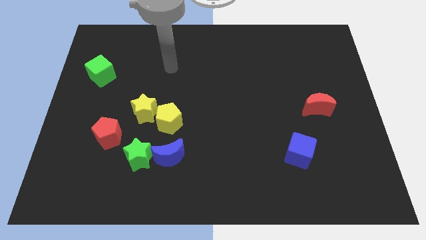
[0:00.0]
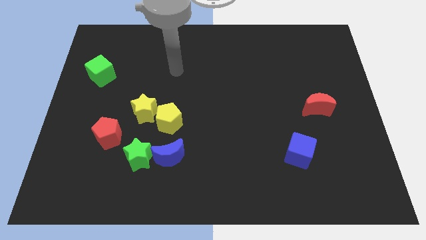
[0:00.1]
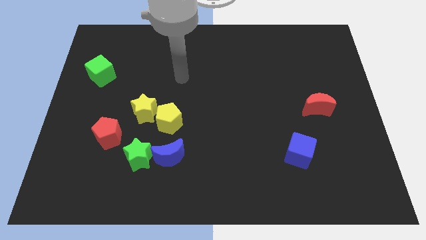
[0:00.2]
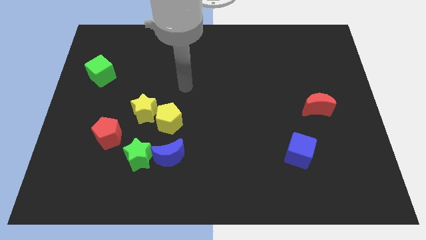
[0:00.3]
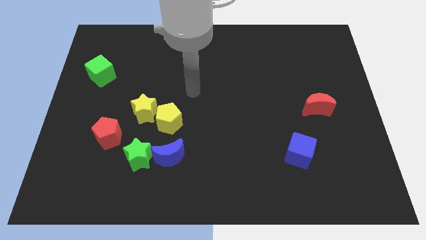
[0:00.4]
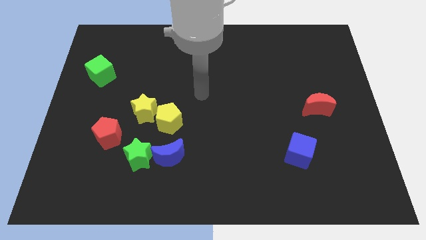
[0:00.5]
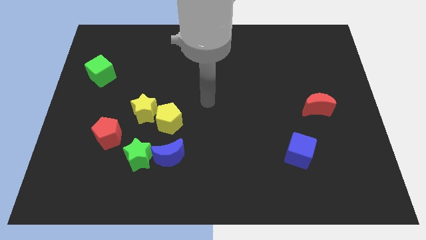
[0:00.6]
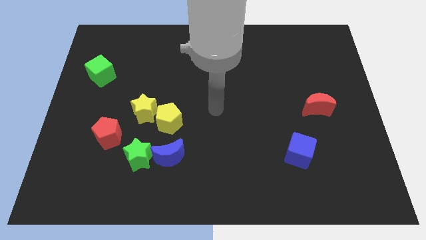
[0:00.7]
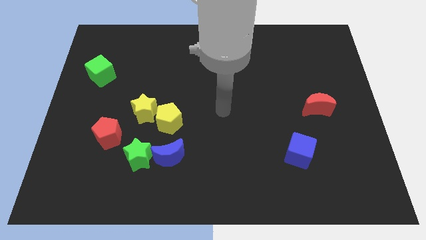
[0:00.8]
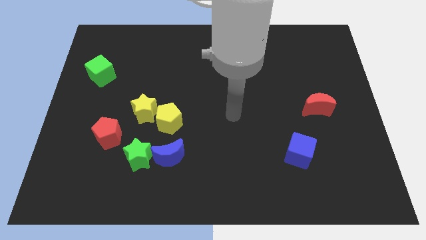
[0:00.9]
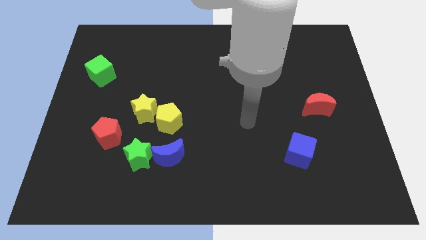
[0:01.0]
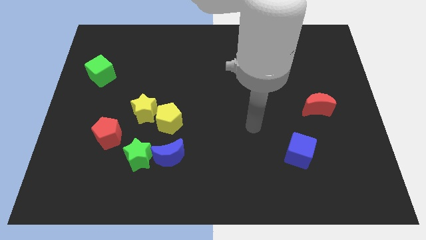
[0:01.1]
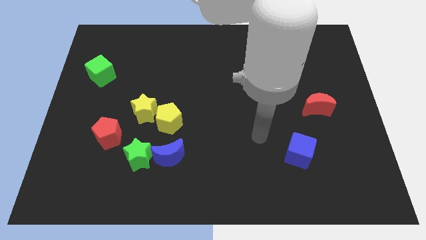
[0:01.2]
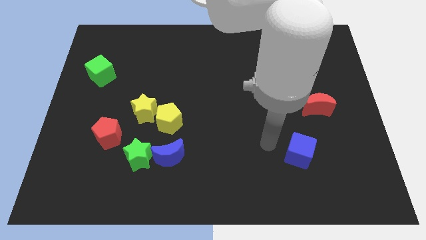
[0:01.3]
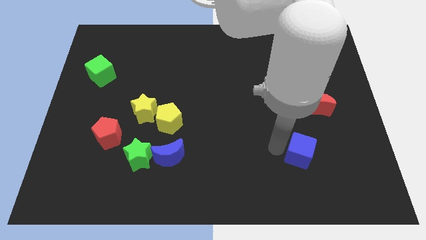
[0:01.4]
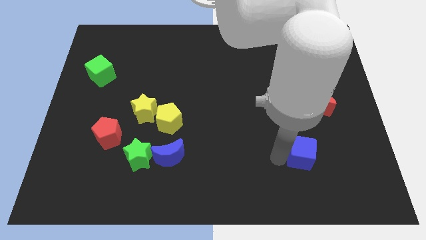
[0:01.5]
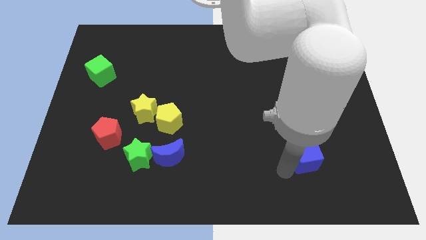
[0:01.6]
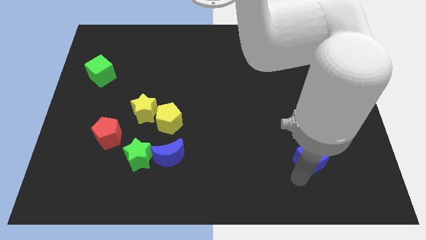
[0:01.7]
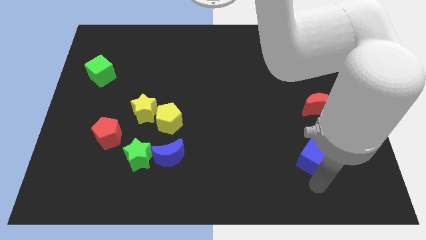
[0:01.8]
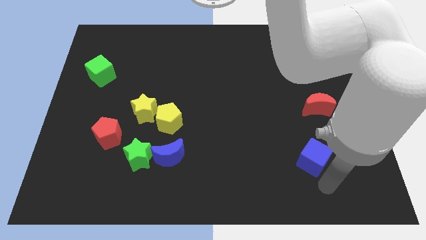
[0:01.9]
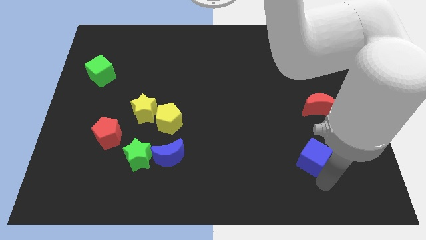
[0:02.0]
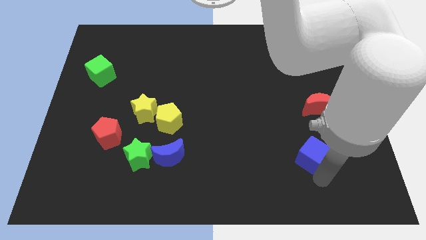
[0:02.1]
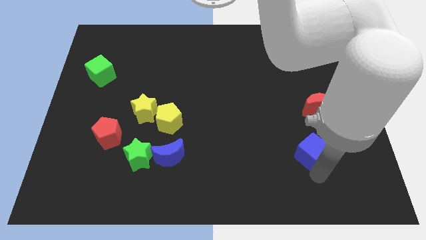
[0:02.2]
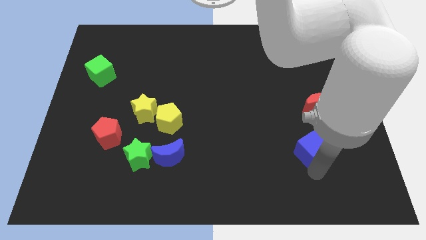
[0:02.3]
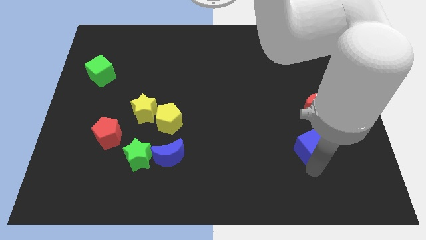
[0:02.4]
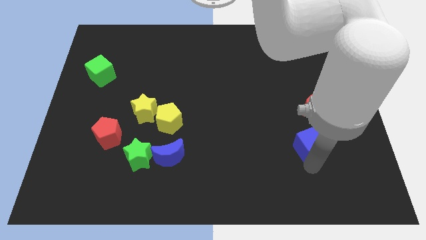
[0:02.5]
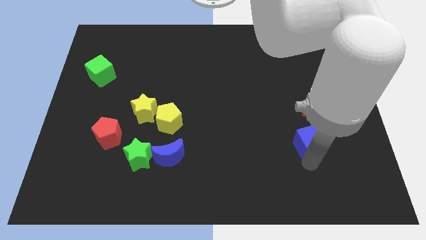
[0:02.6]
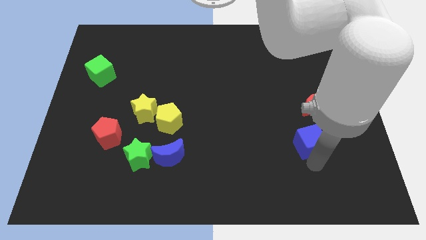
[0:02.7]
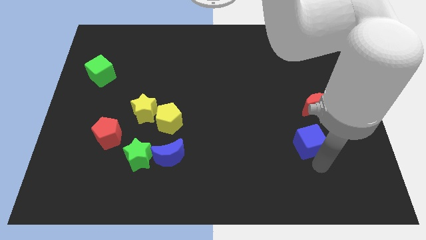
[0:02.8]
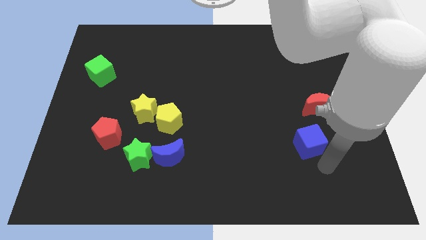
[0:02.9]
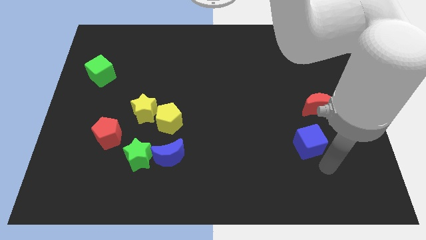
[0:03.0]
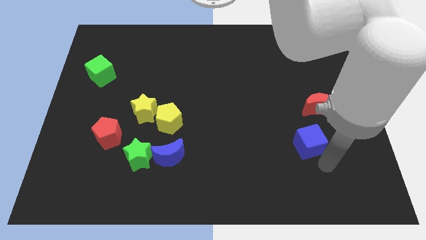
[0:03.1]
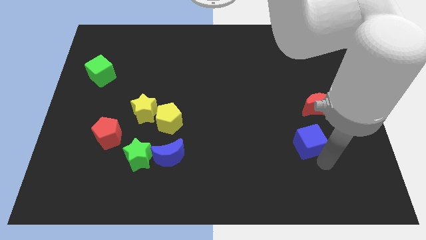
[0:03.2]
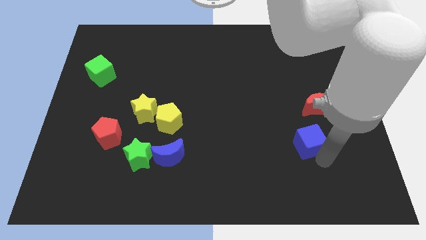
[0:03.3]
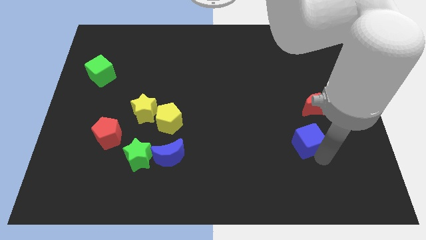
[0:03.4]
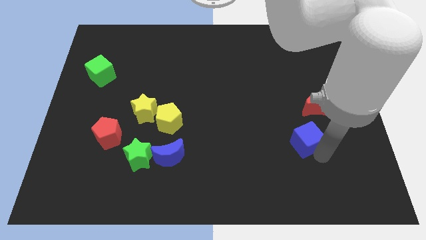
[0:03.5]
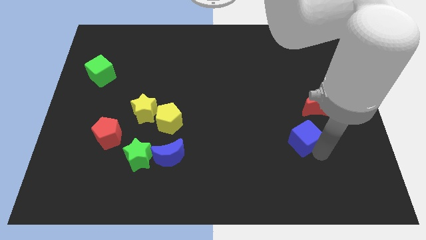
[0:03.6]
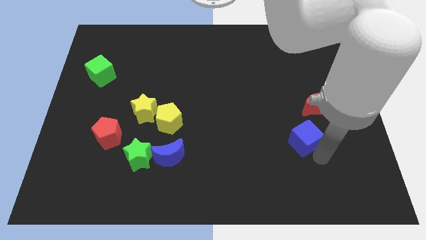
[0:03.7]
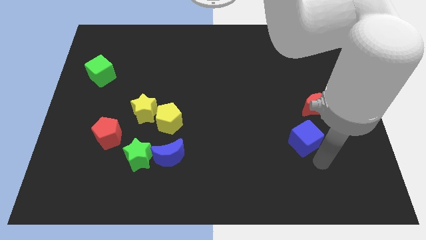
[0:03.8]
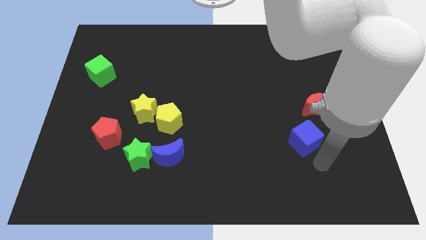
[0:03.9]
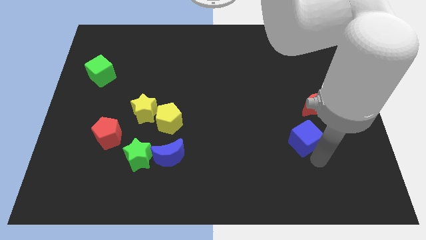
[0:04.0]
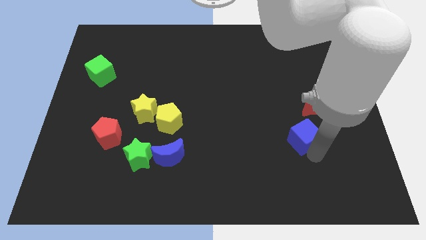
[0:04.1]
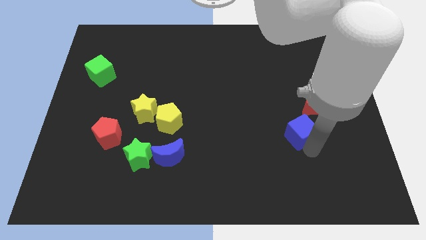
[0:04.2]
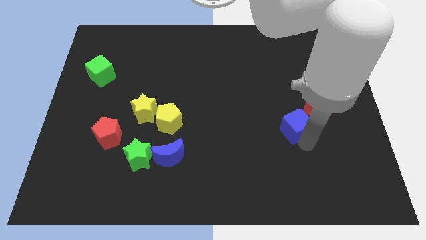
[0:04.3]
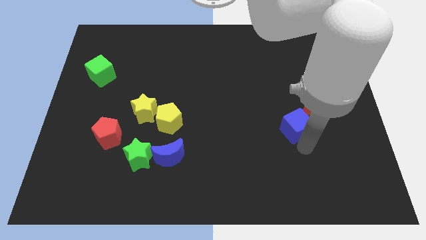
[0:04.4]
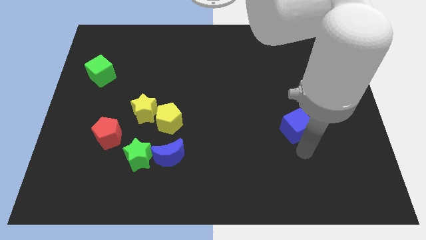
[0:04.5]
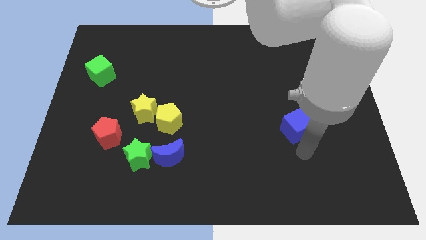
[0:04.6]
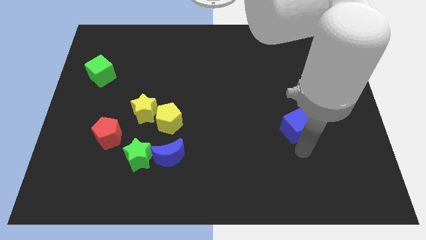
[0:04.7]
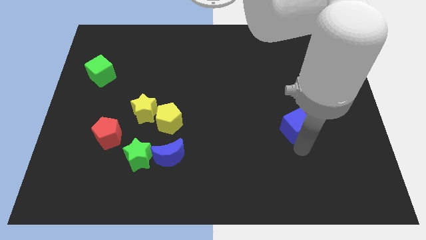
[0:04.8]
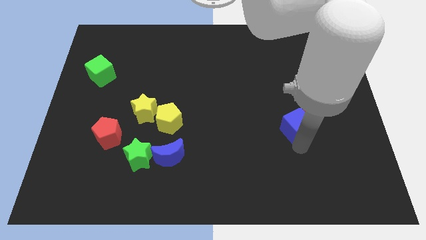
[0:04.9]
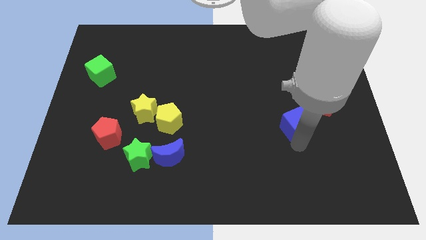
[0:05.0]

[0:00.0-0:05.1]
slightly push the blue cube up

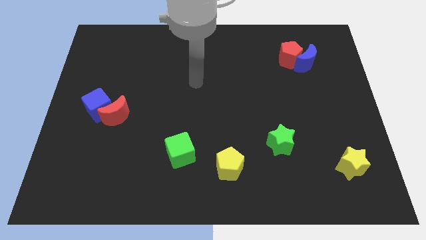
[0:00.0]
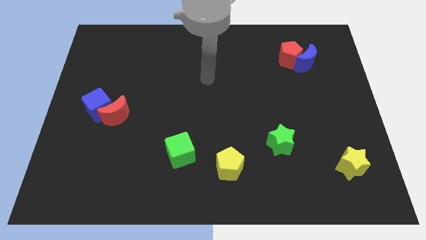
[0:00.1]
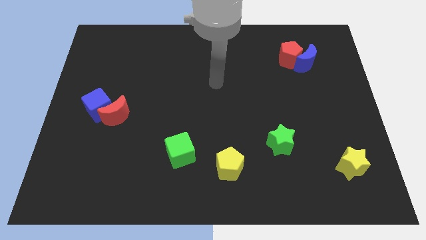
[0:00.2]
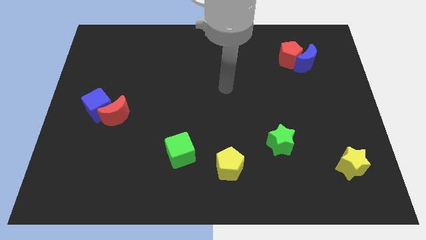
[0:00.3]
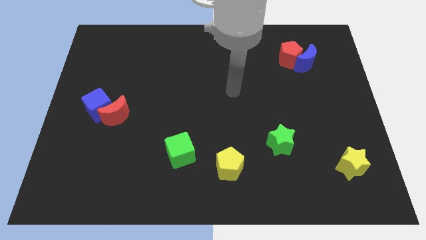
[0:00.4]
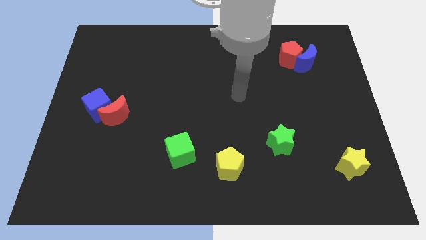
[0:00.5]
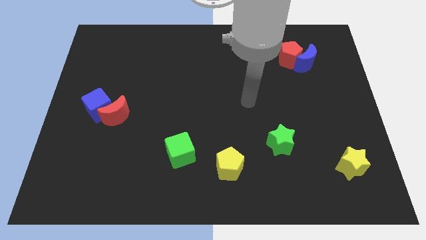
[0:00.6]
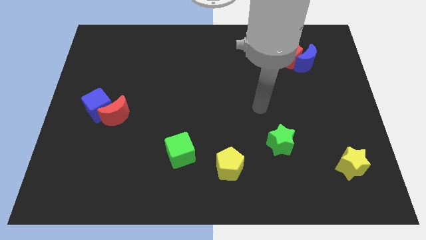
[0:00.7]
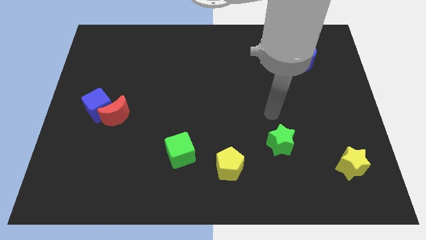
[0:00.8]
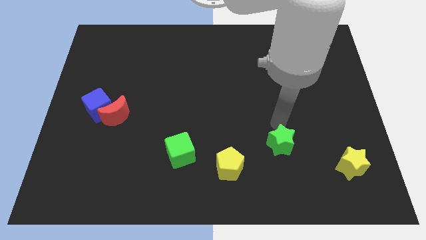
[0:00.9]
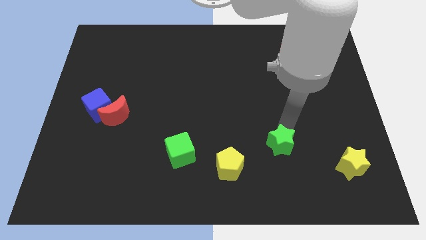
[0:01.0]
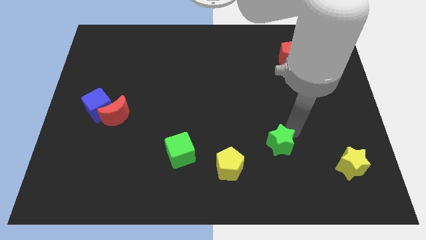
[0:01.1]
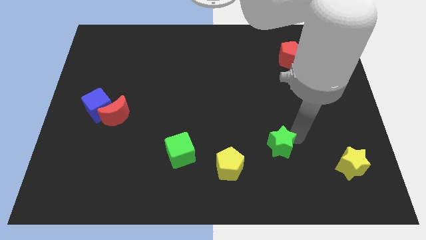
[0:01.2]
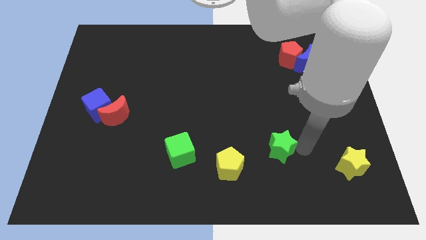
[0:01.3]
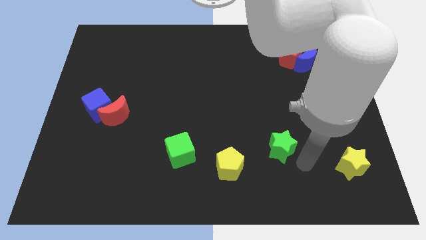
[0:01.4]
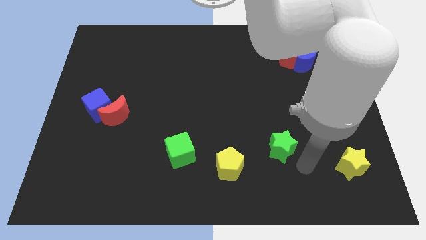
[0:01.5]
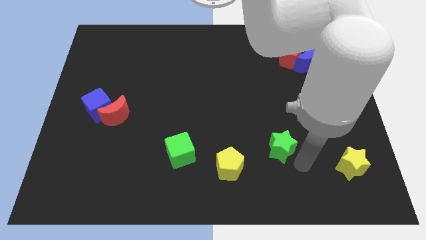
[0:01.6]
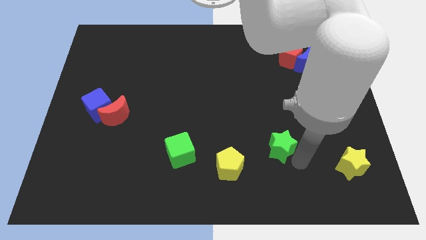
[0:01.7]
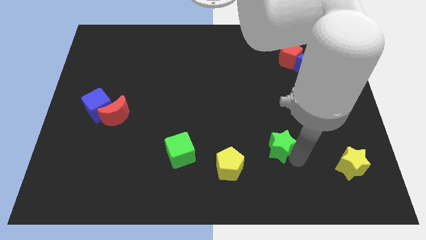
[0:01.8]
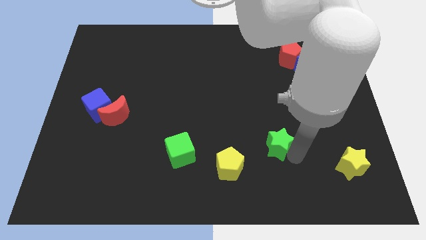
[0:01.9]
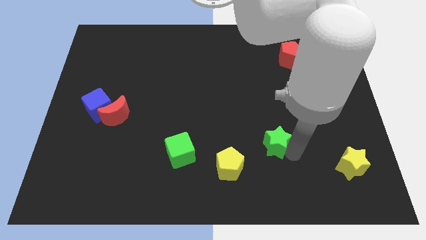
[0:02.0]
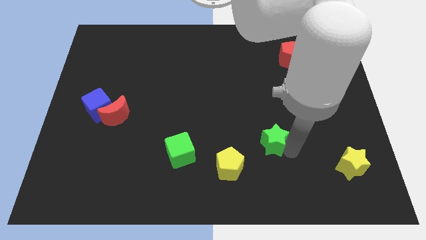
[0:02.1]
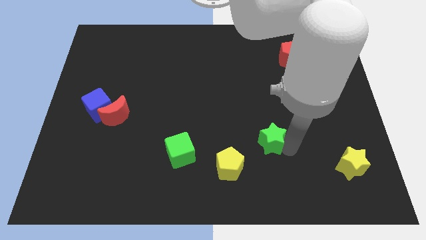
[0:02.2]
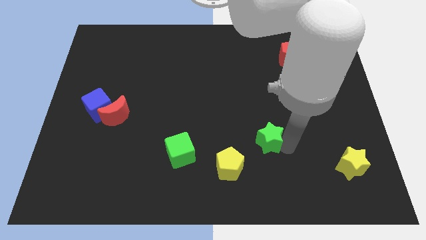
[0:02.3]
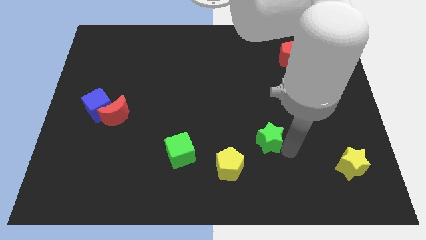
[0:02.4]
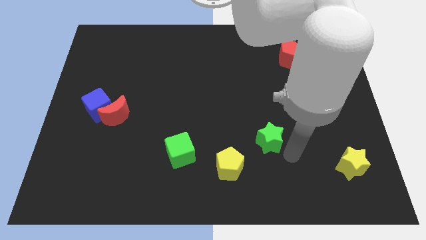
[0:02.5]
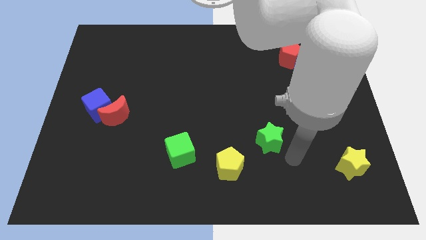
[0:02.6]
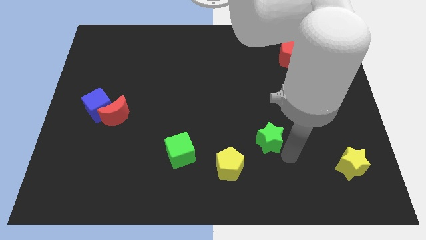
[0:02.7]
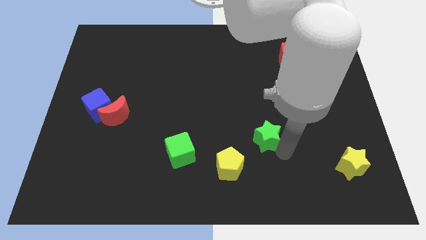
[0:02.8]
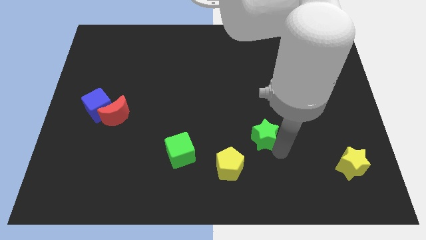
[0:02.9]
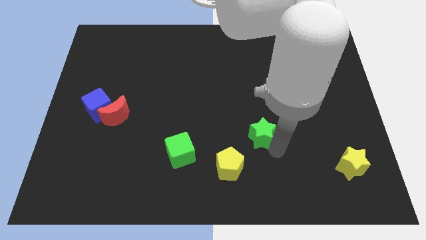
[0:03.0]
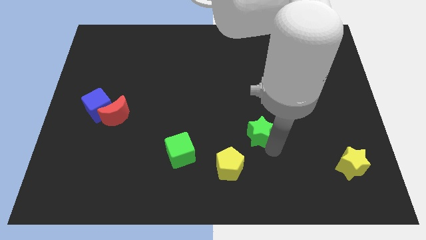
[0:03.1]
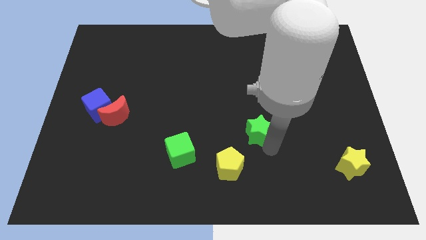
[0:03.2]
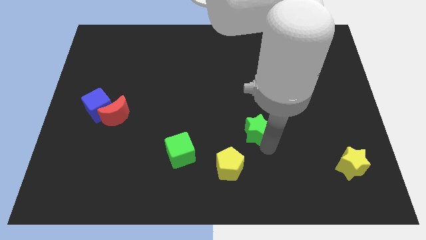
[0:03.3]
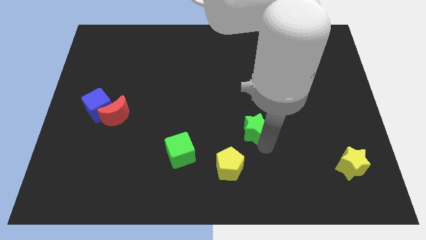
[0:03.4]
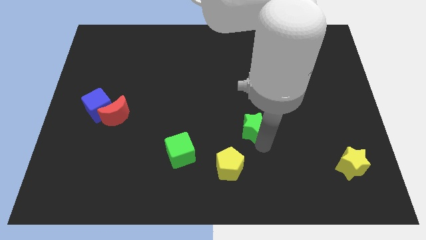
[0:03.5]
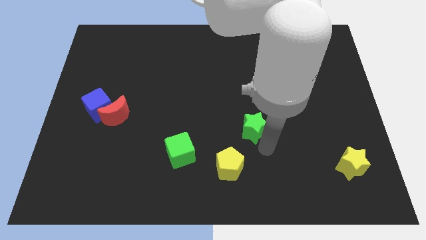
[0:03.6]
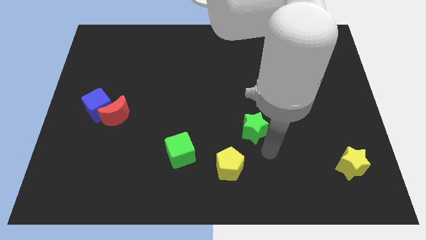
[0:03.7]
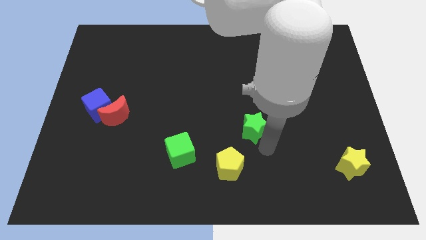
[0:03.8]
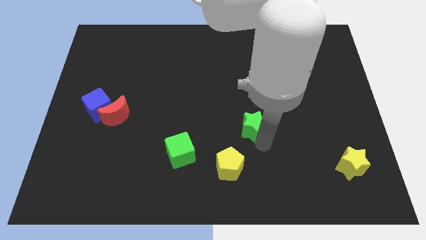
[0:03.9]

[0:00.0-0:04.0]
slightly move the green star upwards and left
